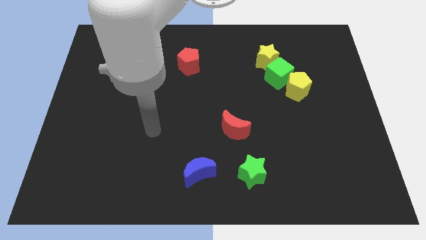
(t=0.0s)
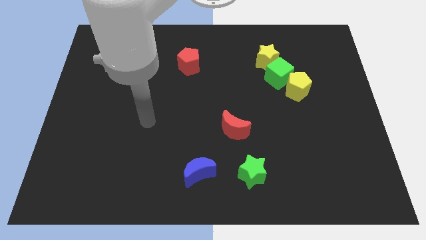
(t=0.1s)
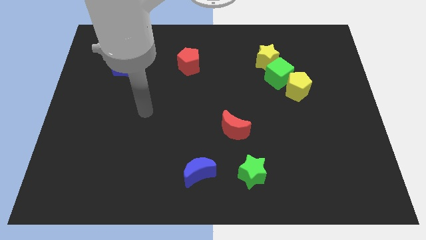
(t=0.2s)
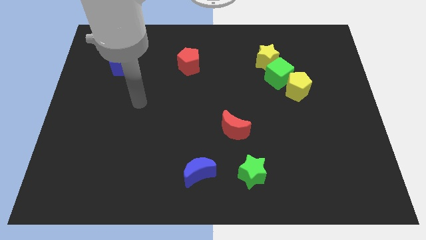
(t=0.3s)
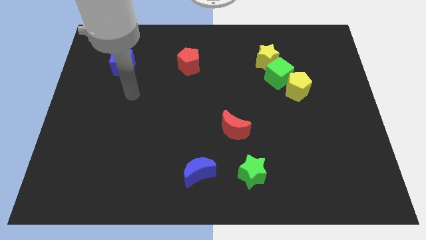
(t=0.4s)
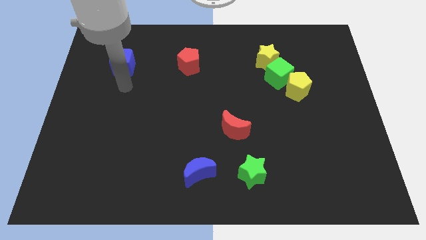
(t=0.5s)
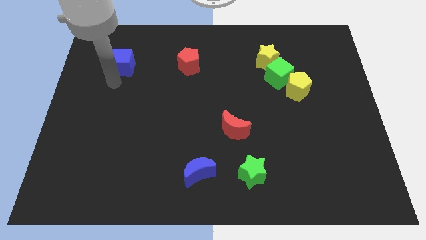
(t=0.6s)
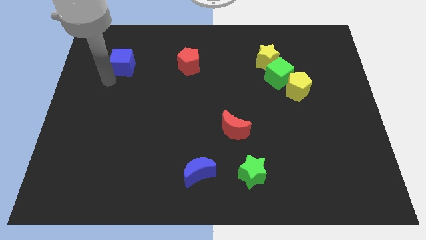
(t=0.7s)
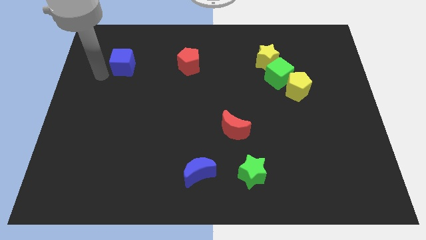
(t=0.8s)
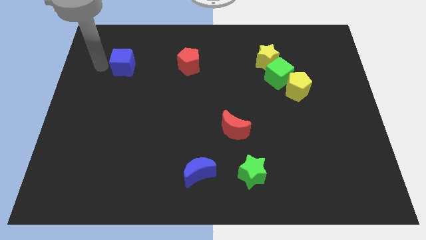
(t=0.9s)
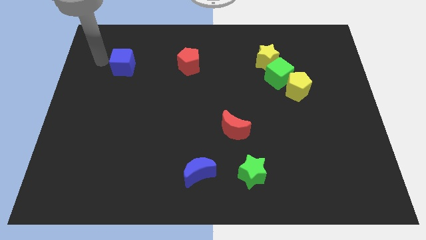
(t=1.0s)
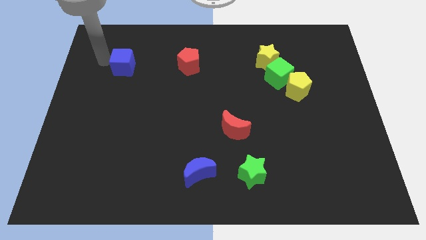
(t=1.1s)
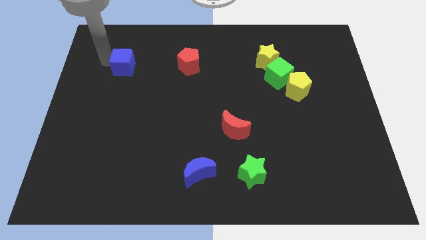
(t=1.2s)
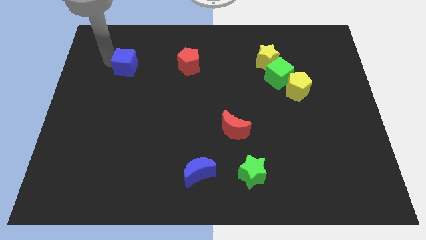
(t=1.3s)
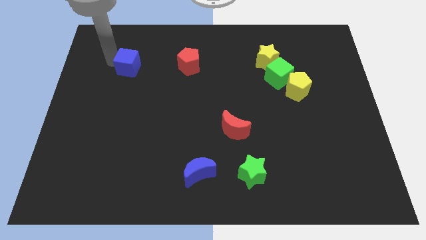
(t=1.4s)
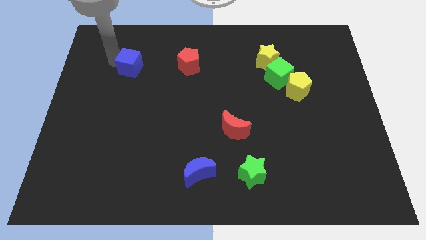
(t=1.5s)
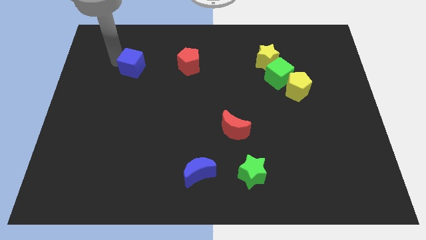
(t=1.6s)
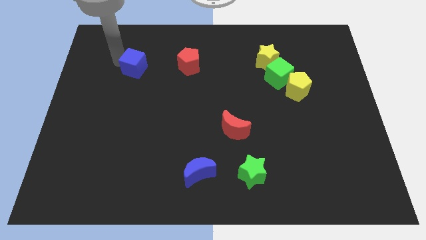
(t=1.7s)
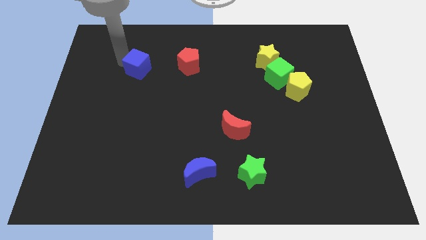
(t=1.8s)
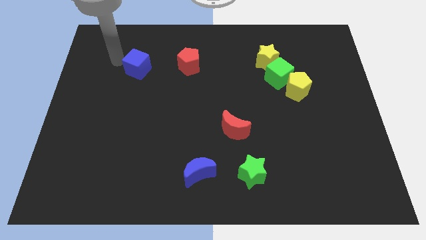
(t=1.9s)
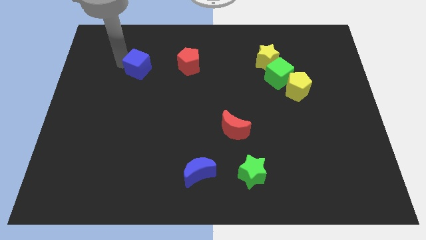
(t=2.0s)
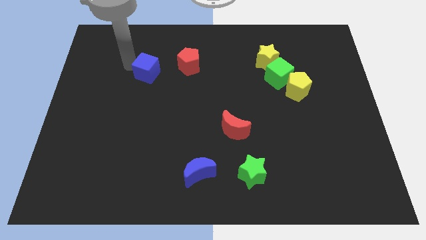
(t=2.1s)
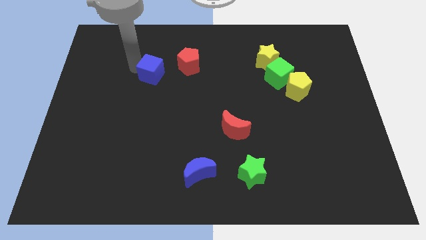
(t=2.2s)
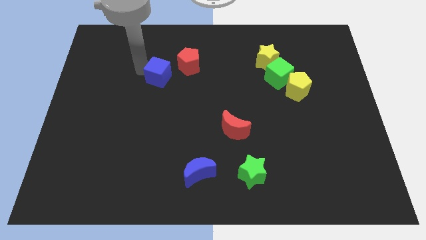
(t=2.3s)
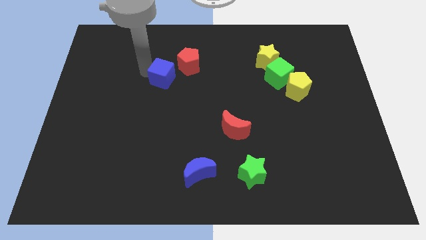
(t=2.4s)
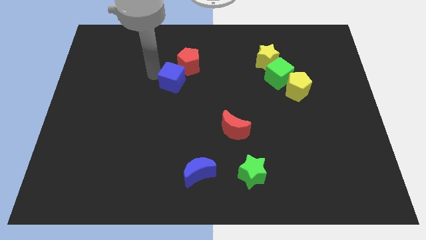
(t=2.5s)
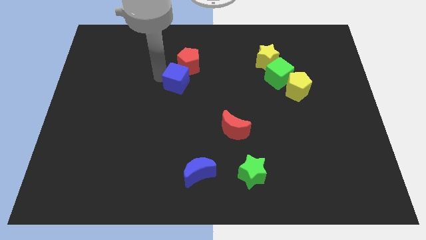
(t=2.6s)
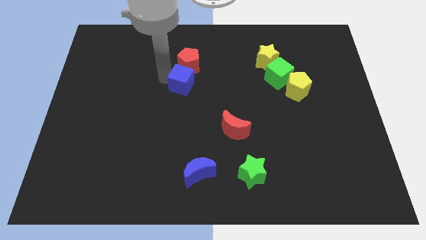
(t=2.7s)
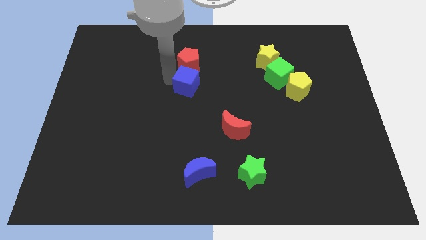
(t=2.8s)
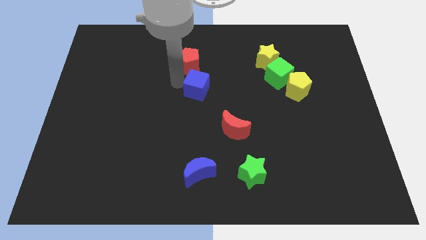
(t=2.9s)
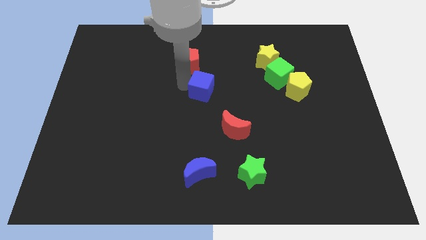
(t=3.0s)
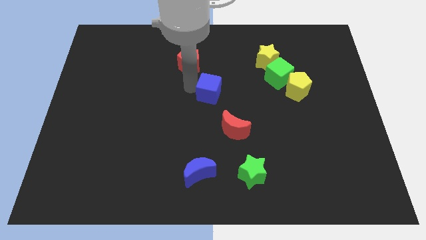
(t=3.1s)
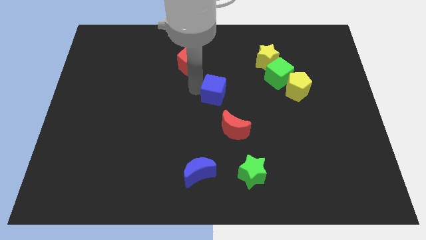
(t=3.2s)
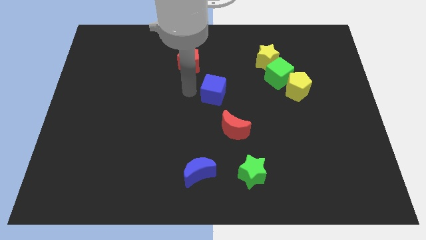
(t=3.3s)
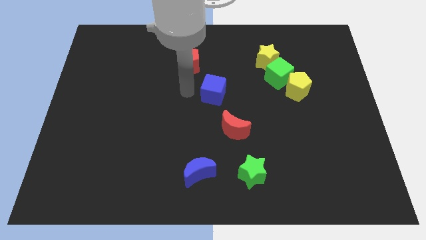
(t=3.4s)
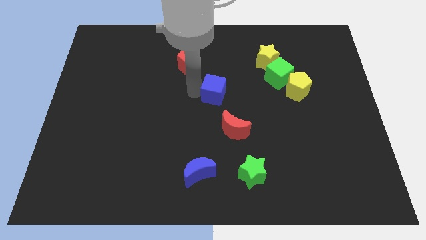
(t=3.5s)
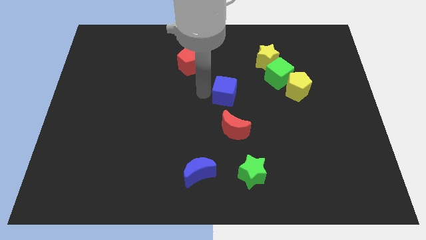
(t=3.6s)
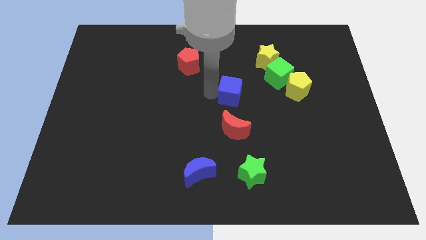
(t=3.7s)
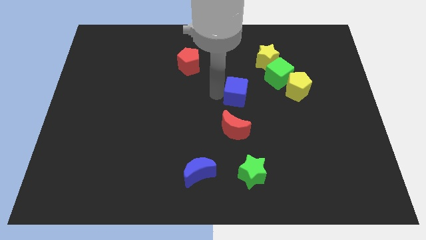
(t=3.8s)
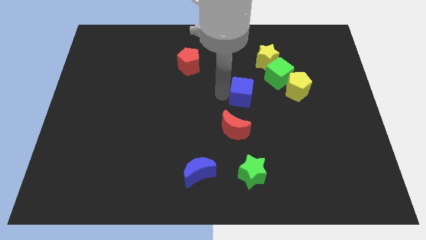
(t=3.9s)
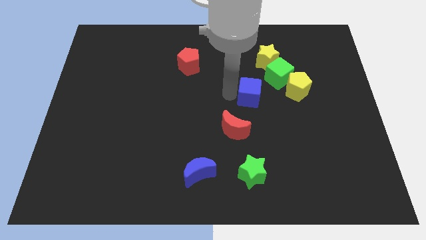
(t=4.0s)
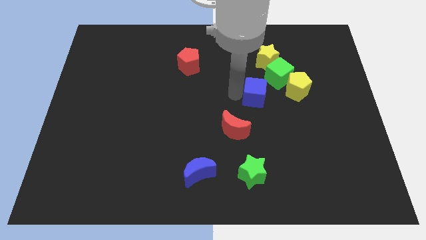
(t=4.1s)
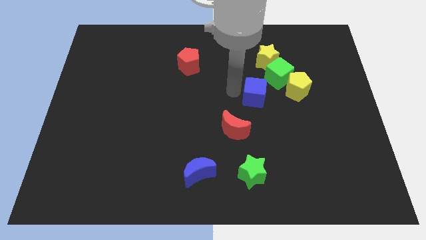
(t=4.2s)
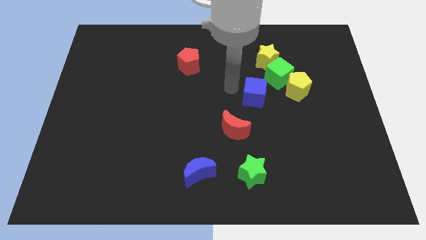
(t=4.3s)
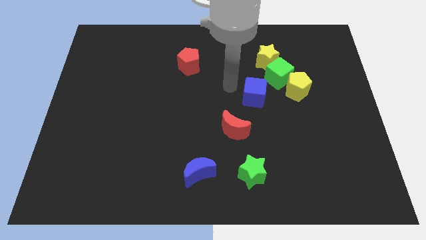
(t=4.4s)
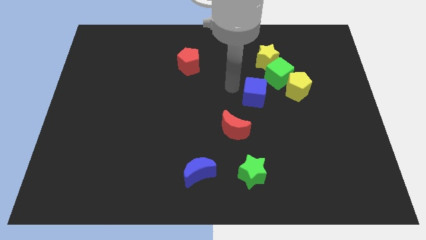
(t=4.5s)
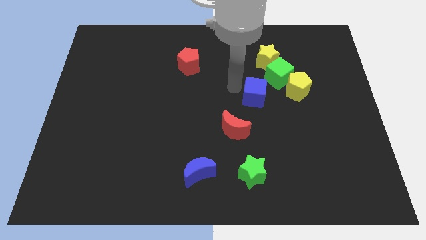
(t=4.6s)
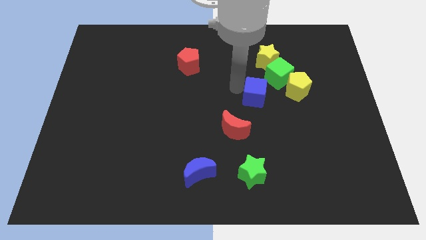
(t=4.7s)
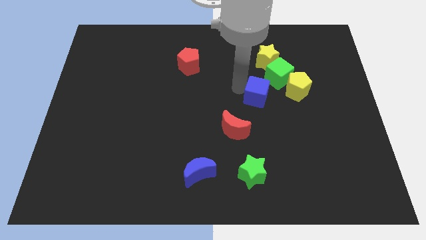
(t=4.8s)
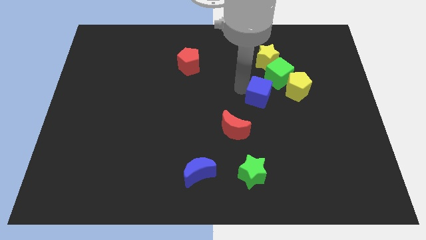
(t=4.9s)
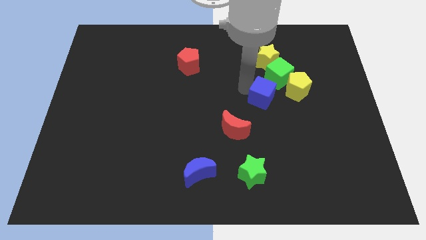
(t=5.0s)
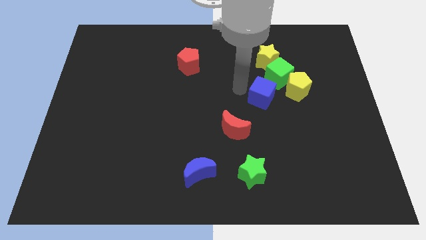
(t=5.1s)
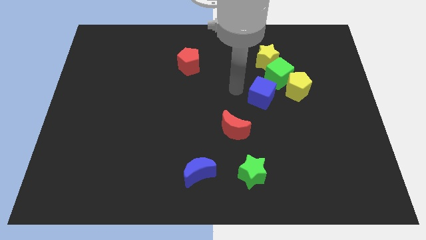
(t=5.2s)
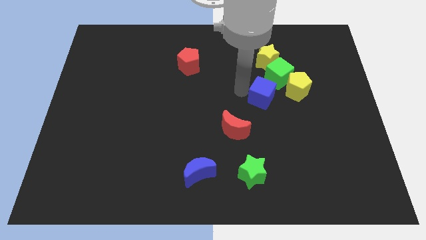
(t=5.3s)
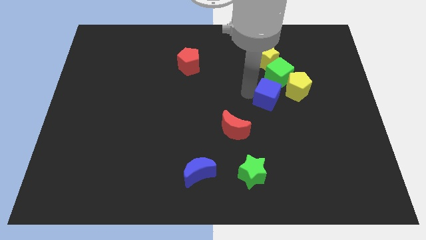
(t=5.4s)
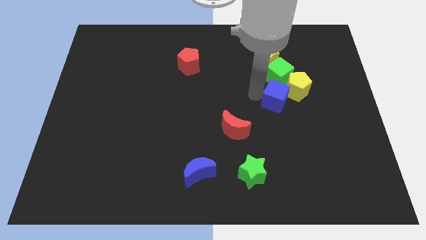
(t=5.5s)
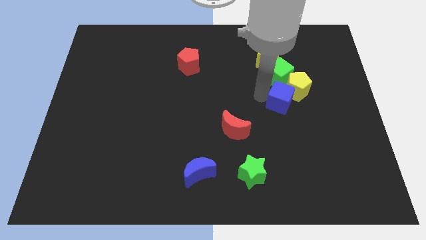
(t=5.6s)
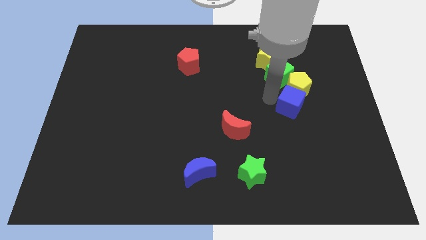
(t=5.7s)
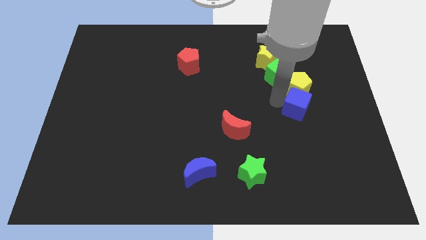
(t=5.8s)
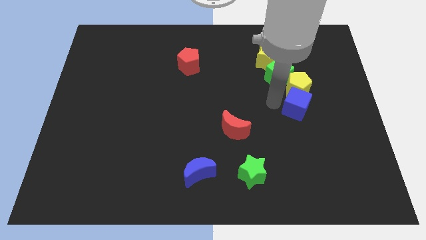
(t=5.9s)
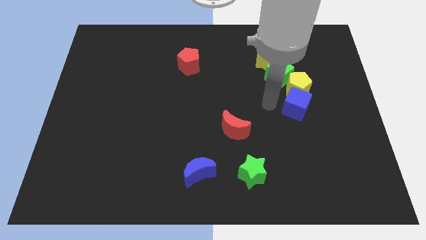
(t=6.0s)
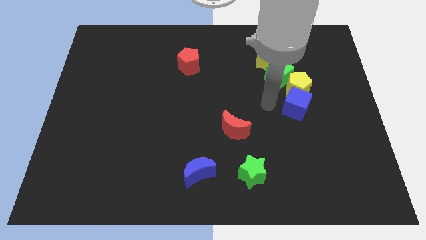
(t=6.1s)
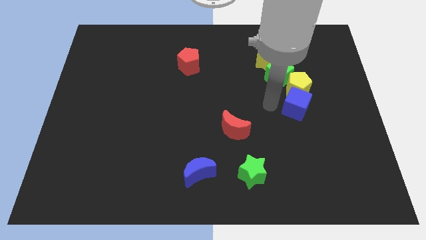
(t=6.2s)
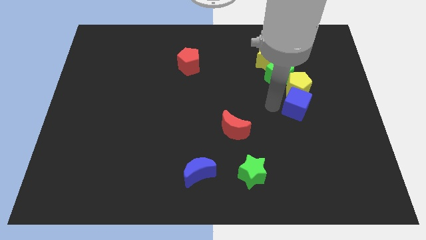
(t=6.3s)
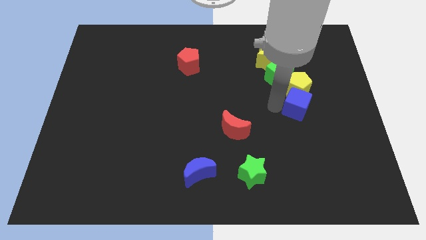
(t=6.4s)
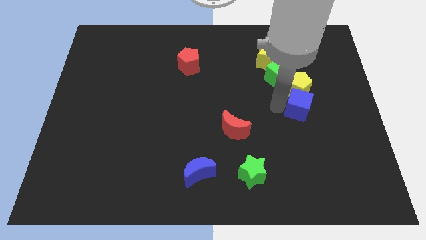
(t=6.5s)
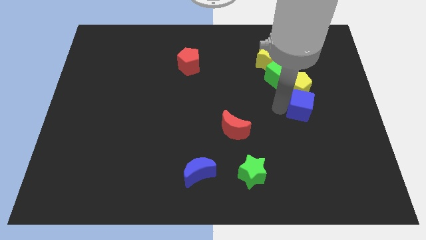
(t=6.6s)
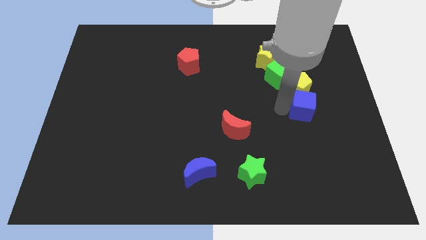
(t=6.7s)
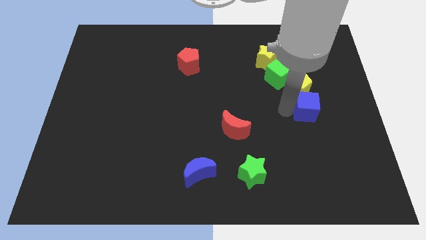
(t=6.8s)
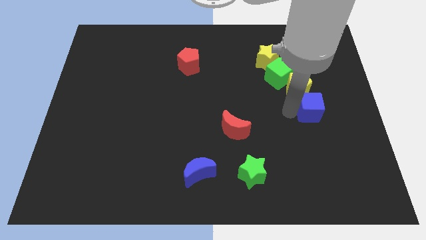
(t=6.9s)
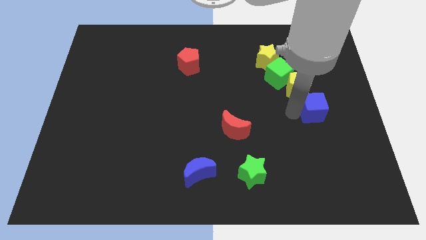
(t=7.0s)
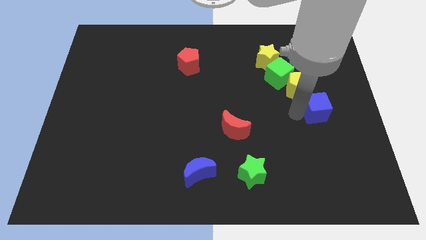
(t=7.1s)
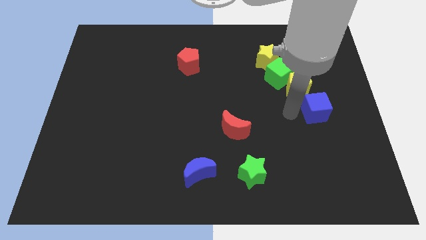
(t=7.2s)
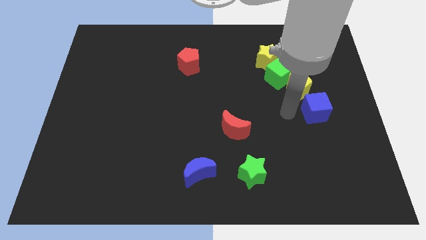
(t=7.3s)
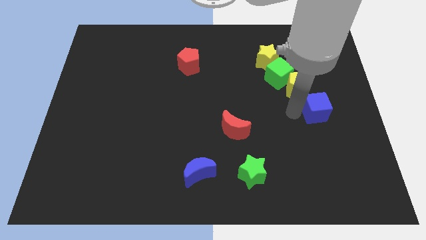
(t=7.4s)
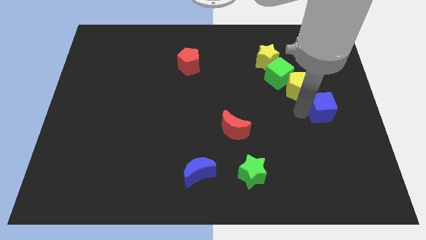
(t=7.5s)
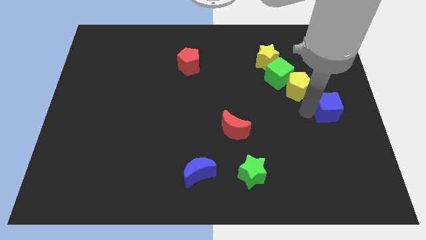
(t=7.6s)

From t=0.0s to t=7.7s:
put the blue cube to the right side
